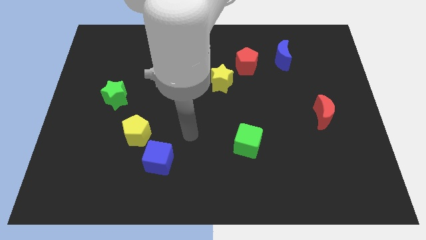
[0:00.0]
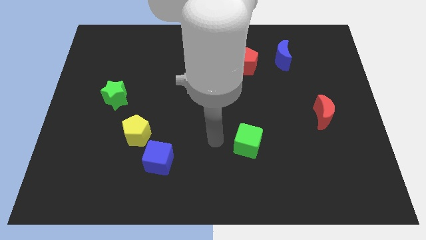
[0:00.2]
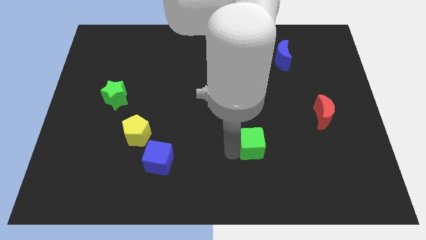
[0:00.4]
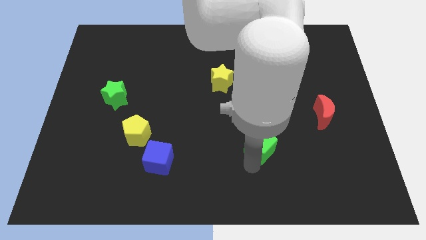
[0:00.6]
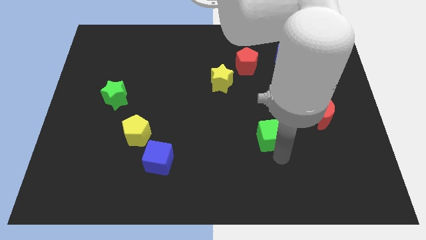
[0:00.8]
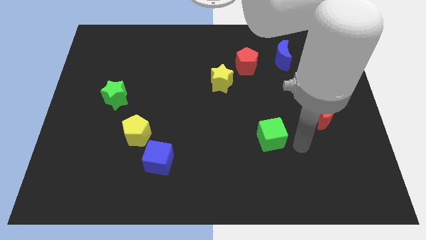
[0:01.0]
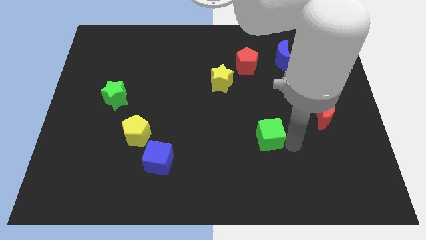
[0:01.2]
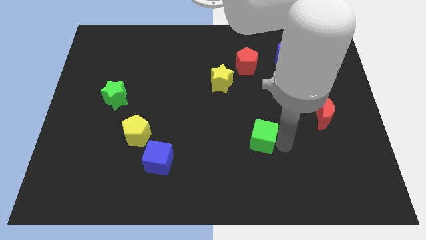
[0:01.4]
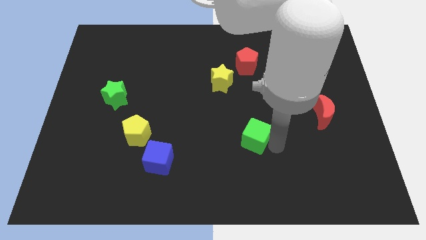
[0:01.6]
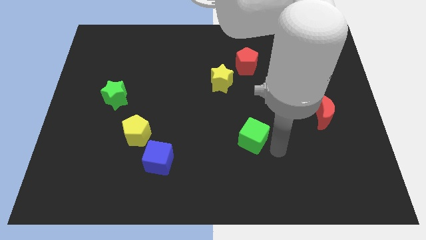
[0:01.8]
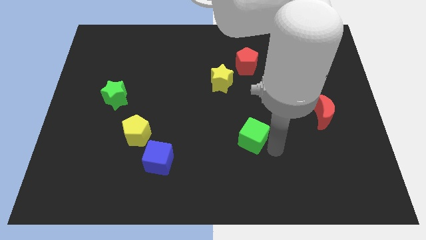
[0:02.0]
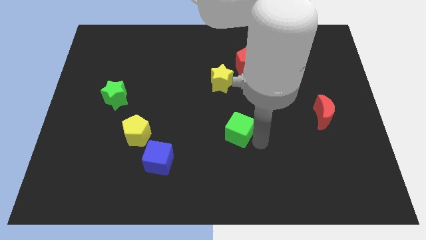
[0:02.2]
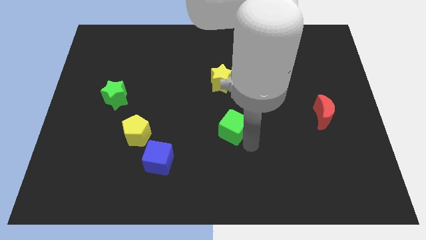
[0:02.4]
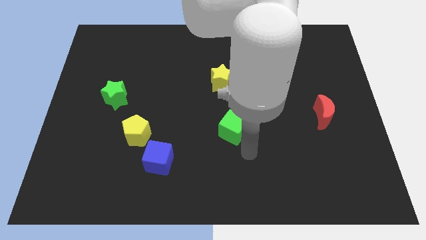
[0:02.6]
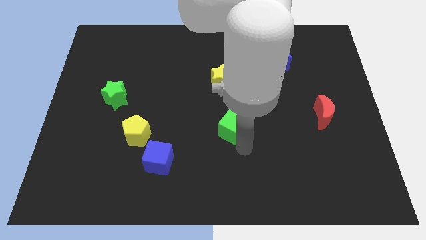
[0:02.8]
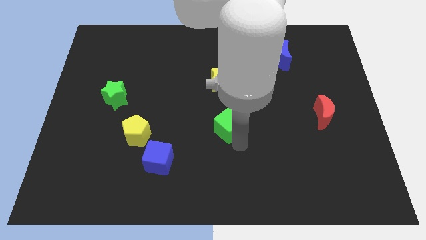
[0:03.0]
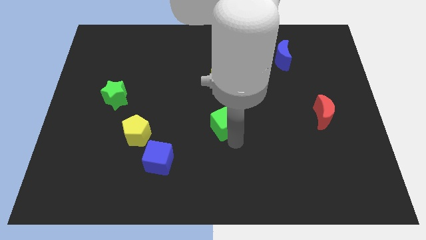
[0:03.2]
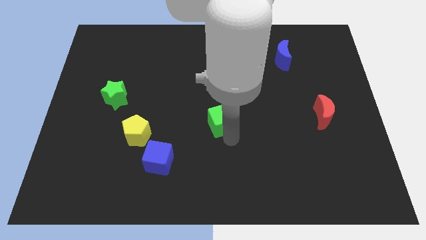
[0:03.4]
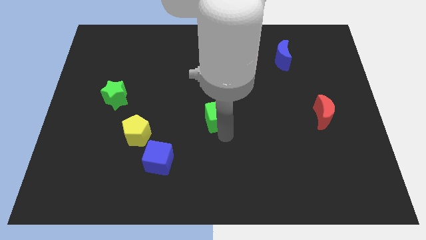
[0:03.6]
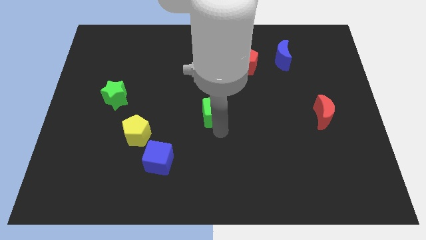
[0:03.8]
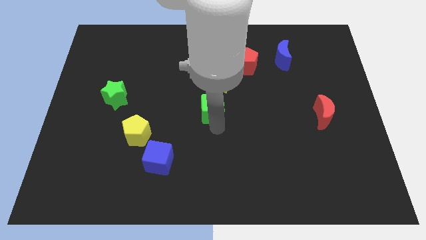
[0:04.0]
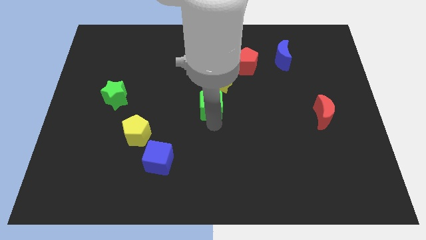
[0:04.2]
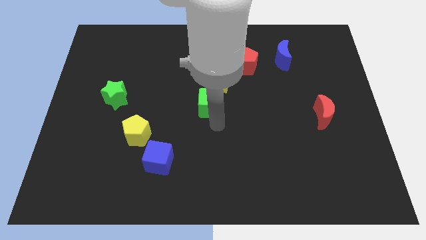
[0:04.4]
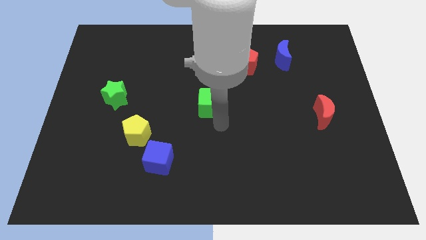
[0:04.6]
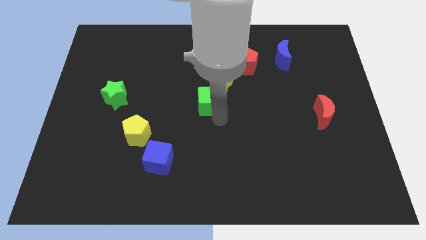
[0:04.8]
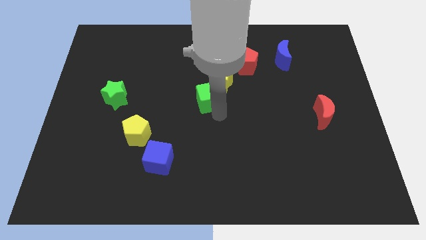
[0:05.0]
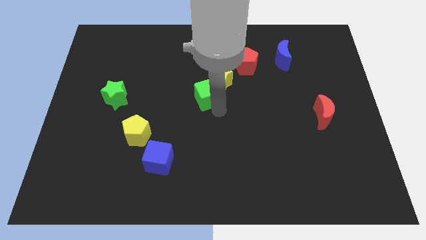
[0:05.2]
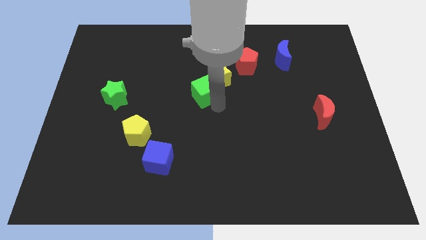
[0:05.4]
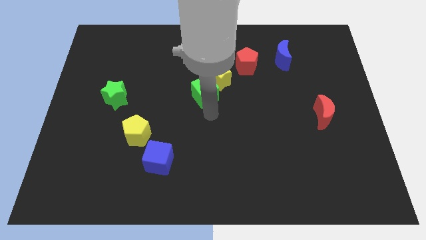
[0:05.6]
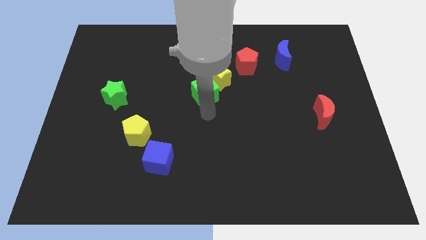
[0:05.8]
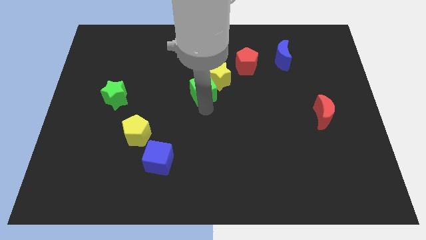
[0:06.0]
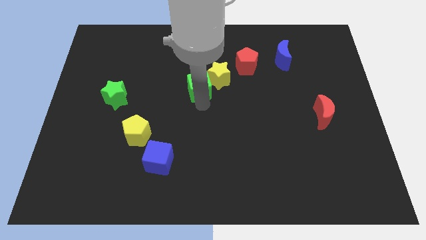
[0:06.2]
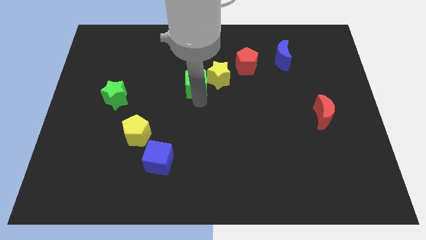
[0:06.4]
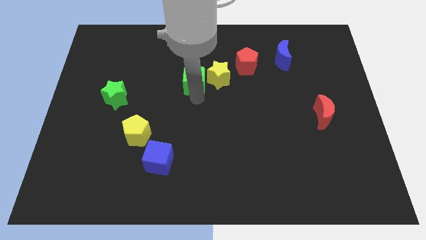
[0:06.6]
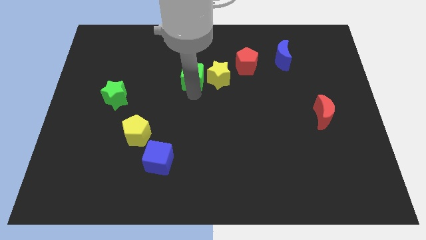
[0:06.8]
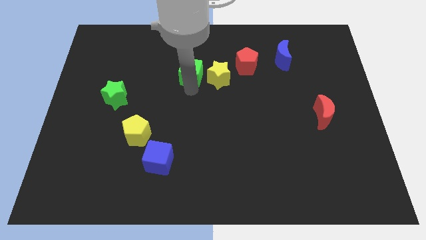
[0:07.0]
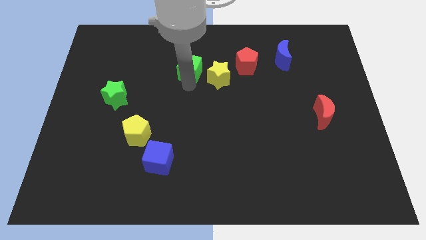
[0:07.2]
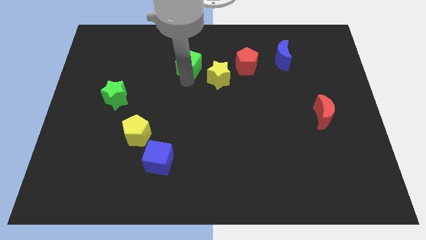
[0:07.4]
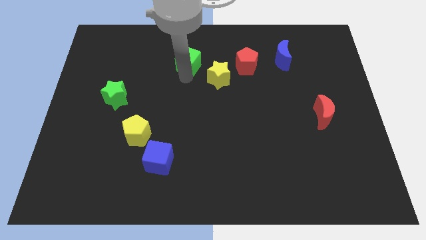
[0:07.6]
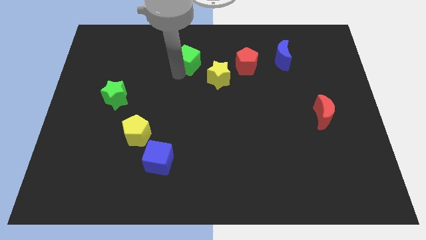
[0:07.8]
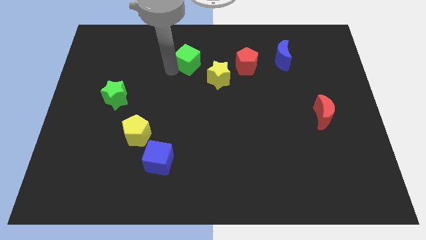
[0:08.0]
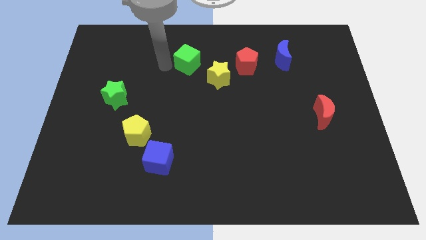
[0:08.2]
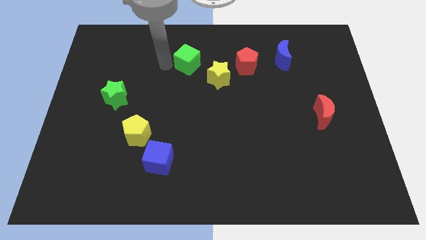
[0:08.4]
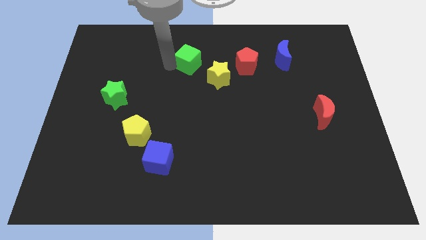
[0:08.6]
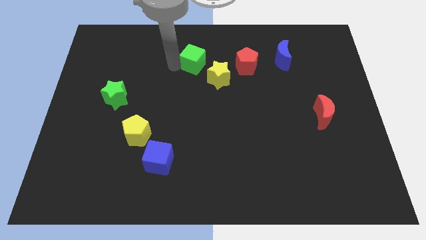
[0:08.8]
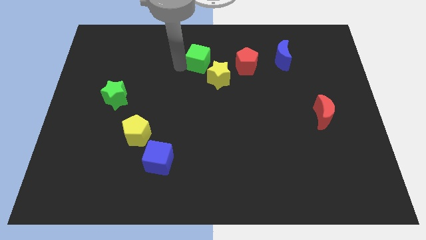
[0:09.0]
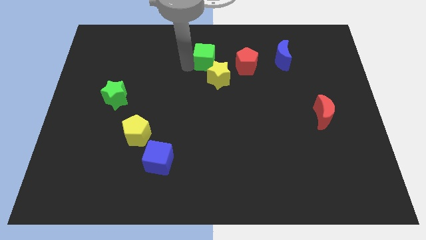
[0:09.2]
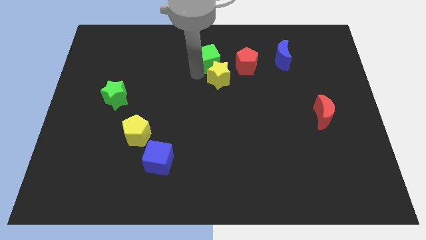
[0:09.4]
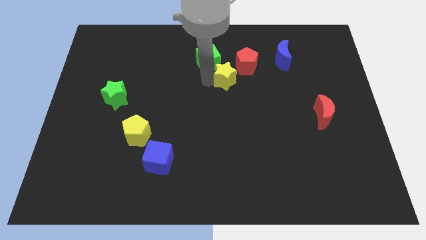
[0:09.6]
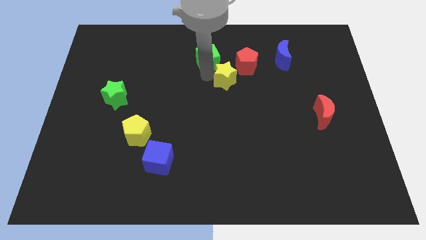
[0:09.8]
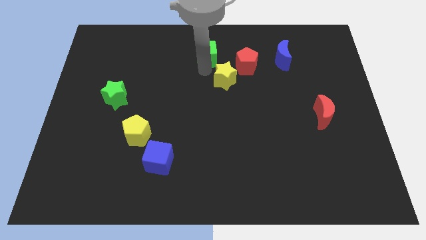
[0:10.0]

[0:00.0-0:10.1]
push the green cube to the top side

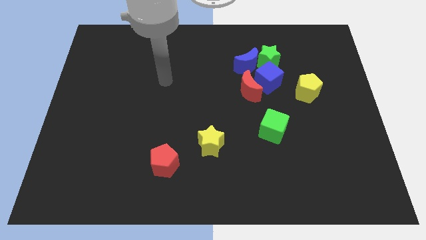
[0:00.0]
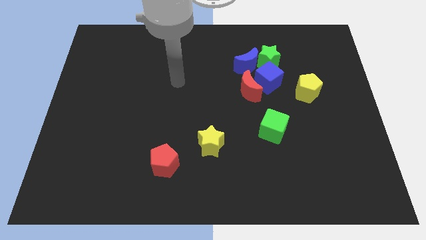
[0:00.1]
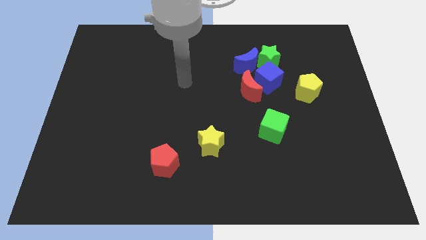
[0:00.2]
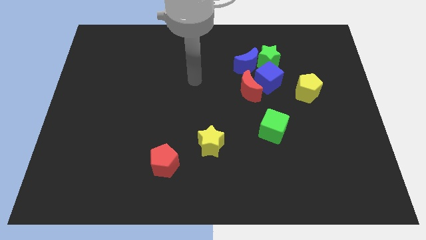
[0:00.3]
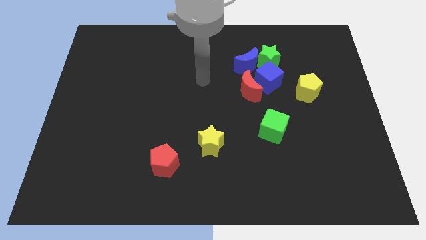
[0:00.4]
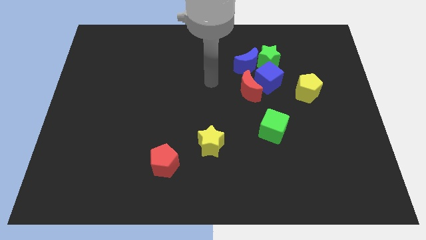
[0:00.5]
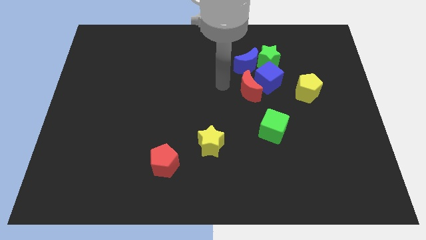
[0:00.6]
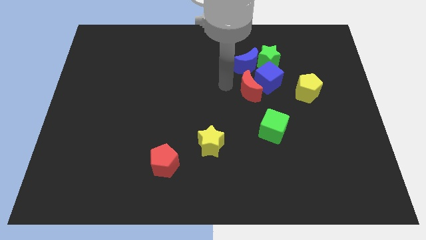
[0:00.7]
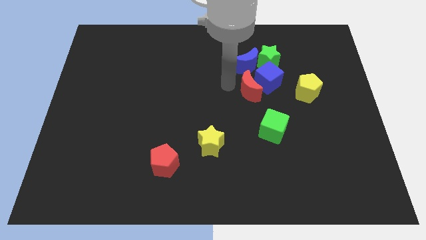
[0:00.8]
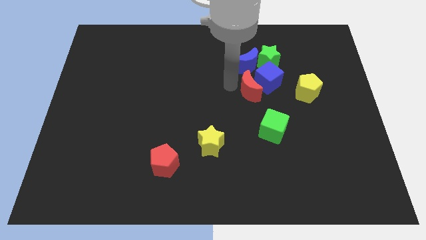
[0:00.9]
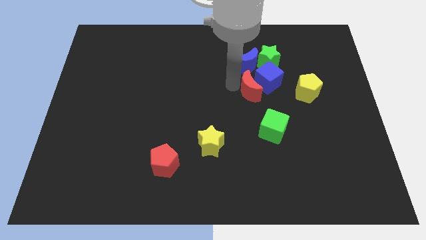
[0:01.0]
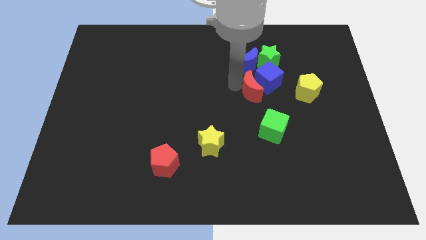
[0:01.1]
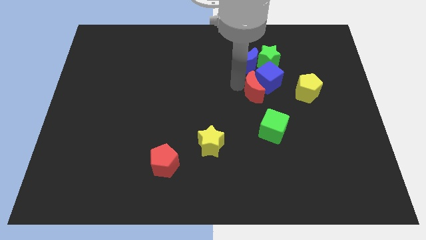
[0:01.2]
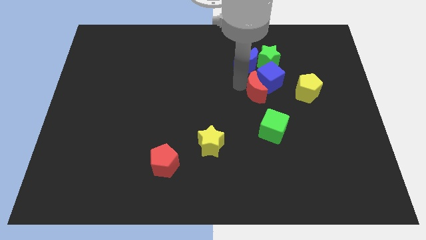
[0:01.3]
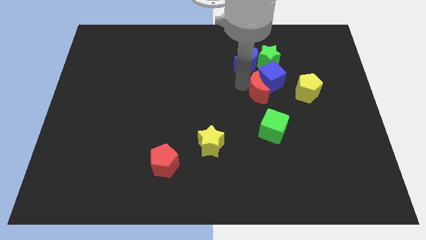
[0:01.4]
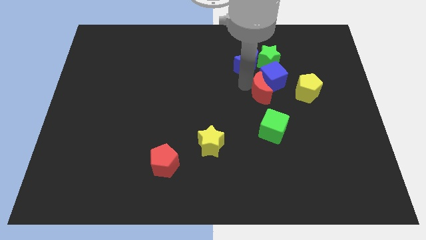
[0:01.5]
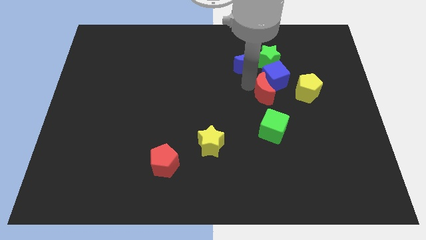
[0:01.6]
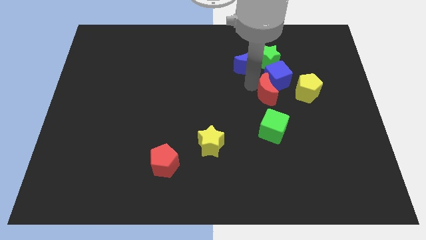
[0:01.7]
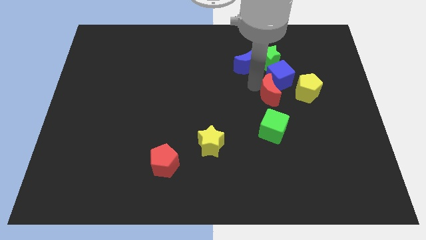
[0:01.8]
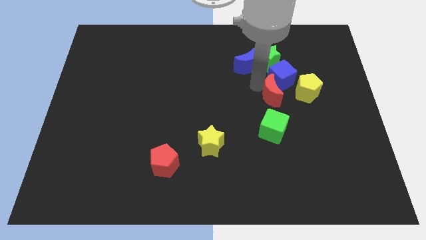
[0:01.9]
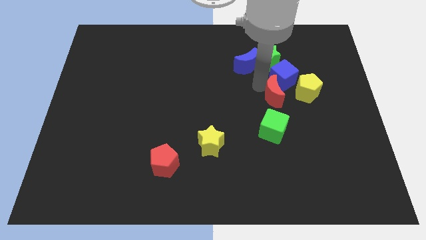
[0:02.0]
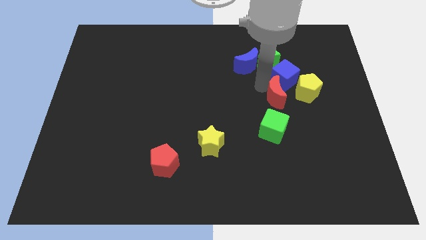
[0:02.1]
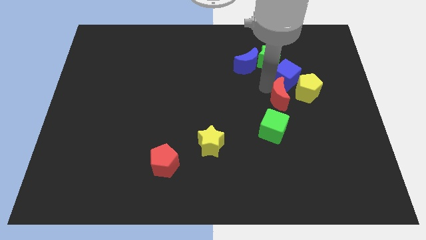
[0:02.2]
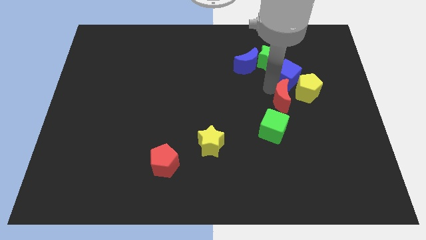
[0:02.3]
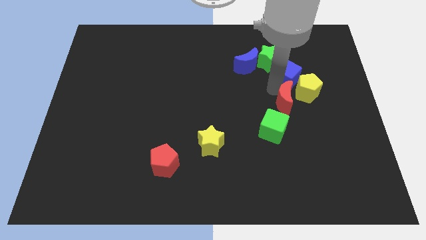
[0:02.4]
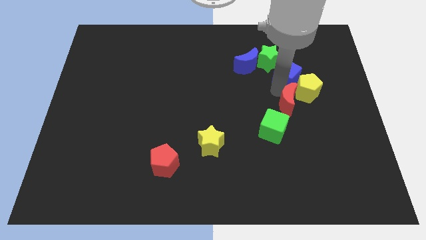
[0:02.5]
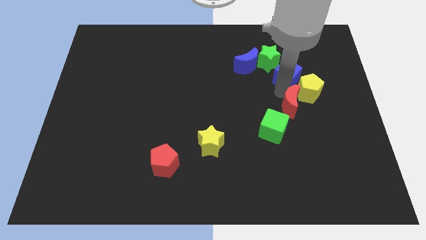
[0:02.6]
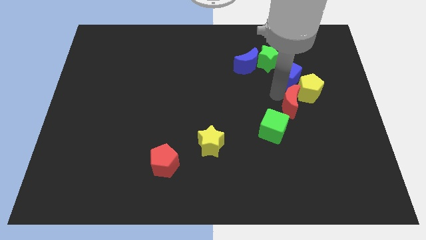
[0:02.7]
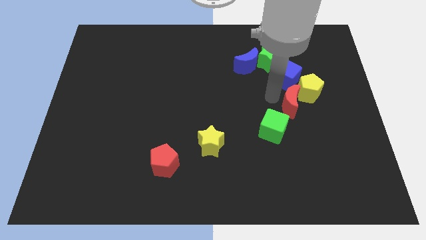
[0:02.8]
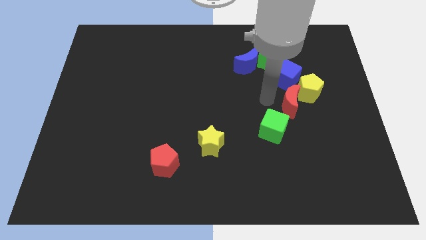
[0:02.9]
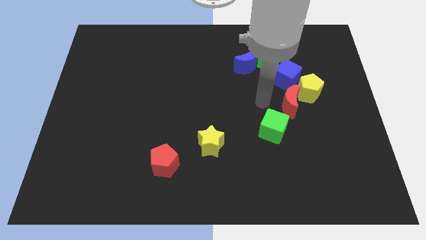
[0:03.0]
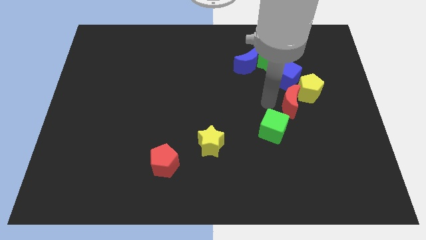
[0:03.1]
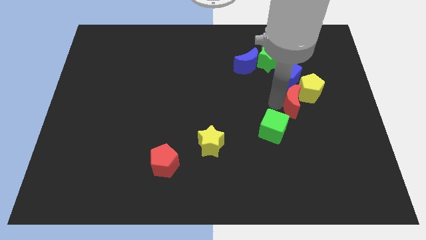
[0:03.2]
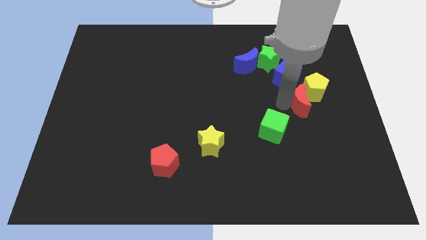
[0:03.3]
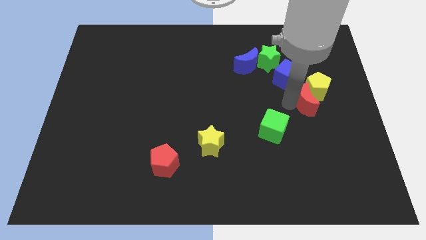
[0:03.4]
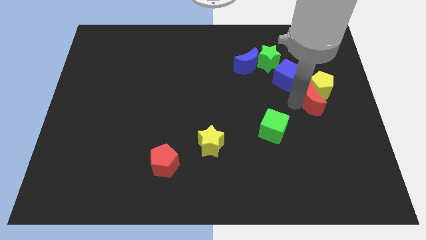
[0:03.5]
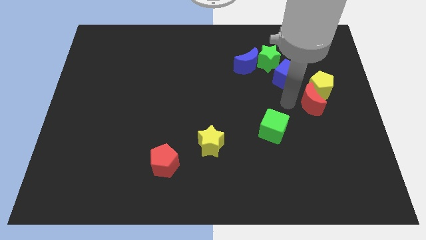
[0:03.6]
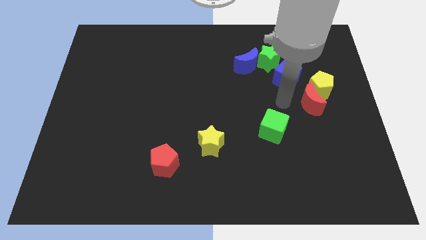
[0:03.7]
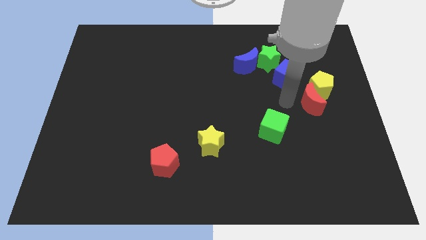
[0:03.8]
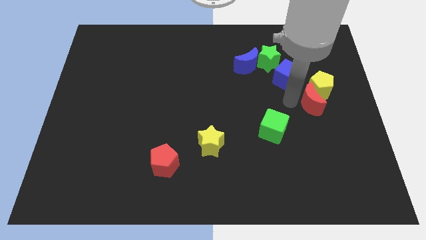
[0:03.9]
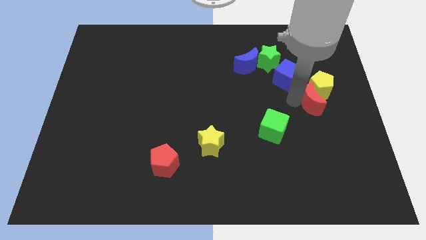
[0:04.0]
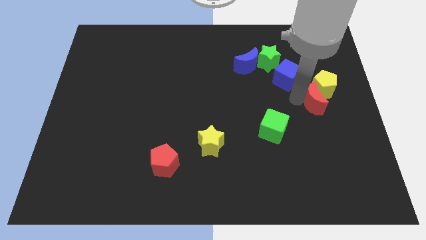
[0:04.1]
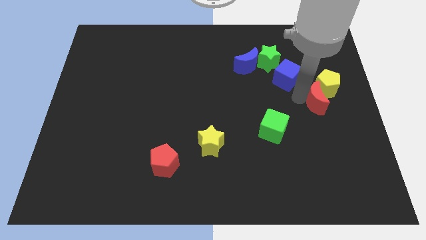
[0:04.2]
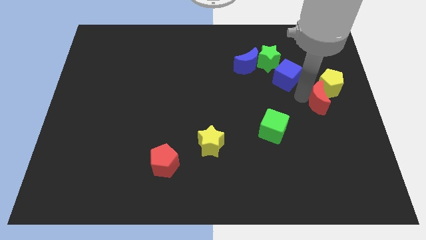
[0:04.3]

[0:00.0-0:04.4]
push the red moon to the right side of the board
